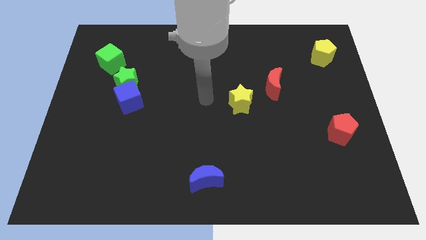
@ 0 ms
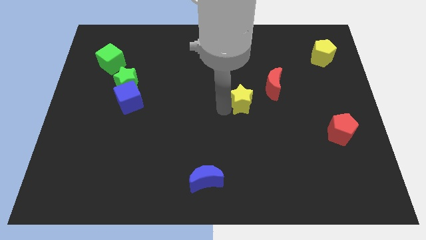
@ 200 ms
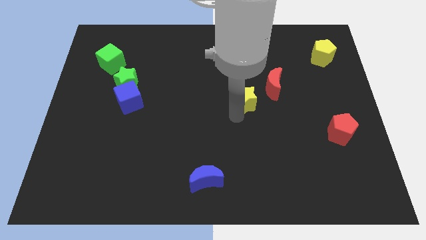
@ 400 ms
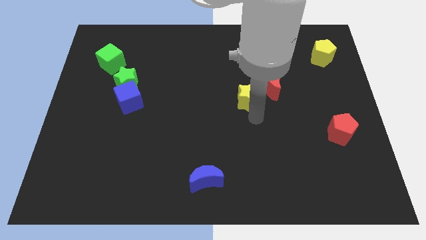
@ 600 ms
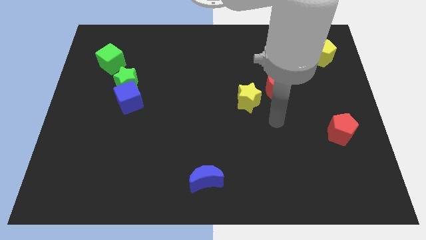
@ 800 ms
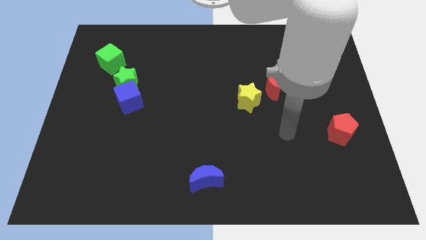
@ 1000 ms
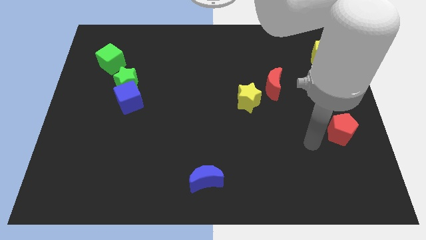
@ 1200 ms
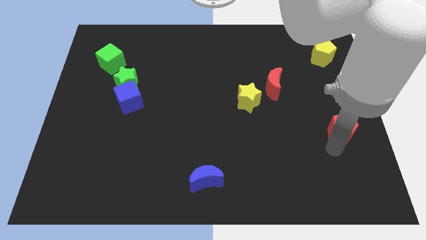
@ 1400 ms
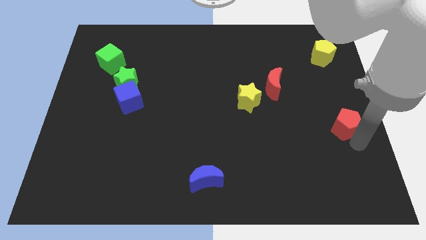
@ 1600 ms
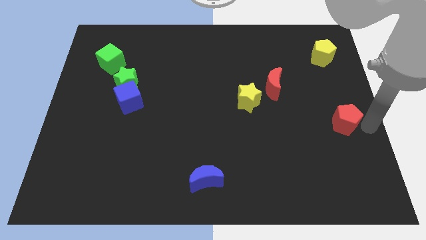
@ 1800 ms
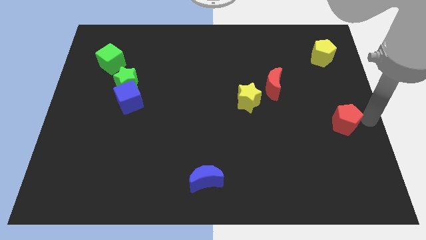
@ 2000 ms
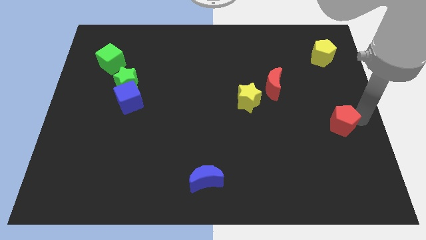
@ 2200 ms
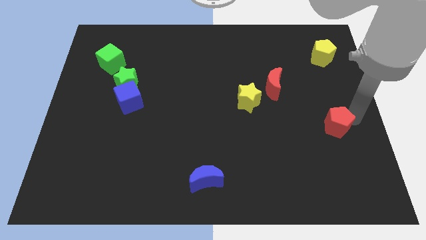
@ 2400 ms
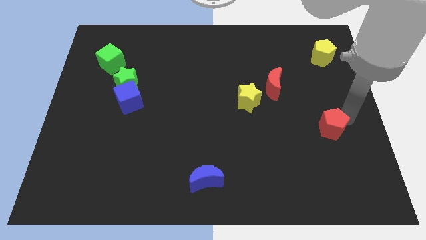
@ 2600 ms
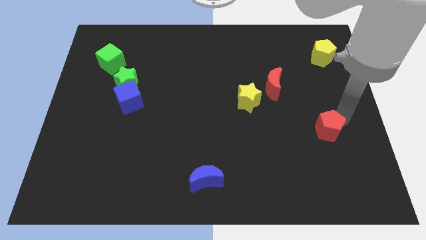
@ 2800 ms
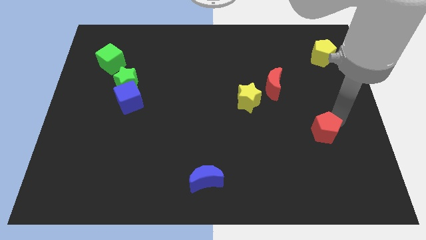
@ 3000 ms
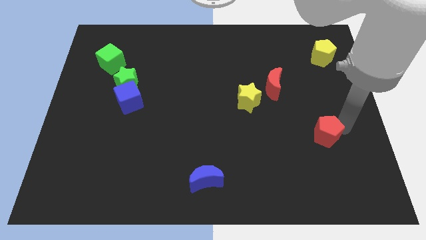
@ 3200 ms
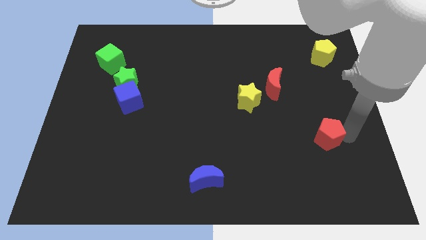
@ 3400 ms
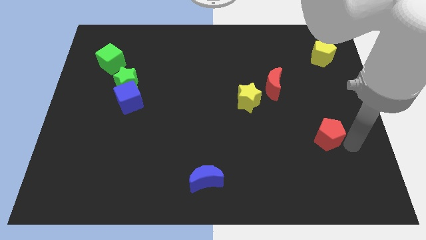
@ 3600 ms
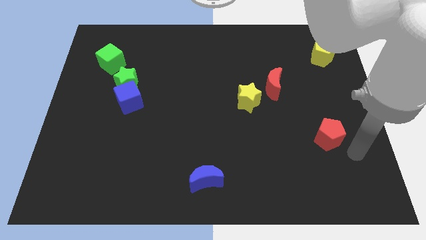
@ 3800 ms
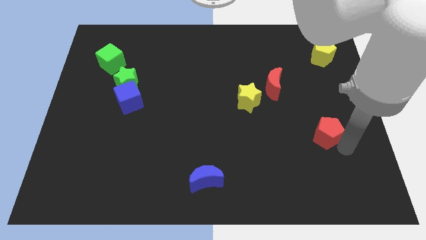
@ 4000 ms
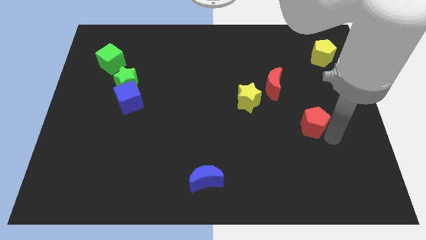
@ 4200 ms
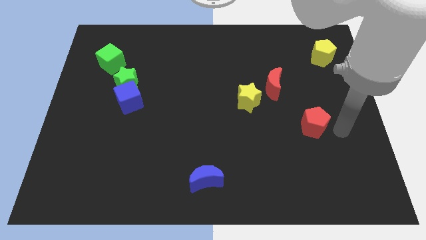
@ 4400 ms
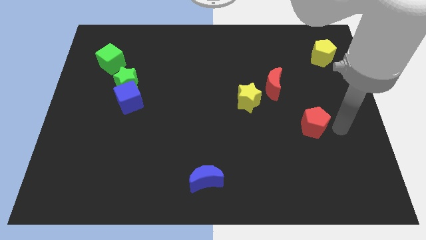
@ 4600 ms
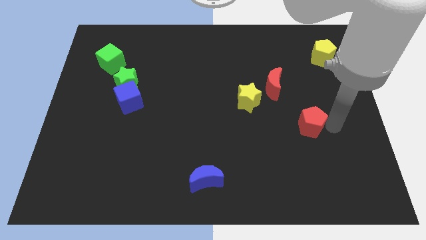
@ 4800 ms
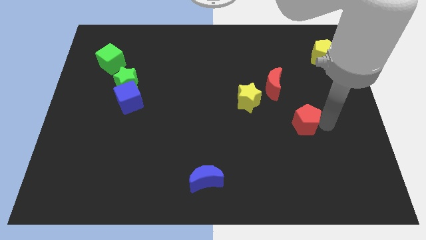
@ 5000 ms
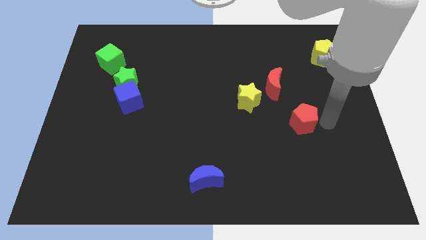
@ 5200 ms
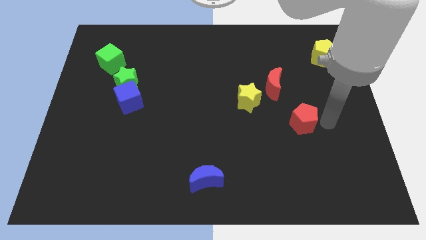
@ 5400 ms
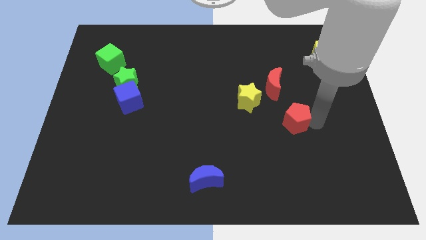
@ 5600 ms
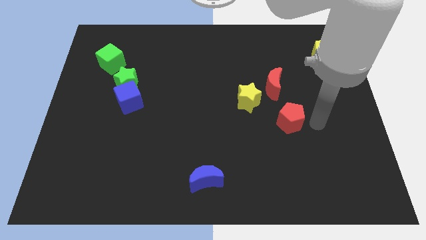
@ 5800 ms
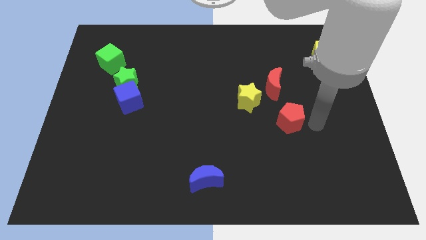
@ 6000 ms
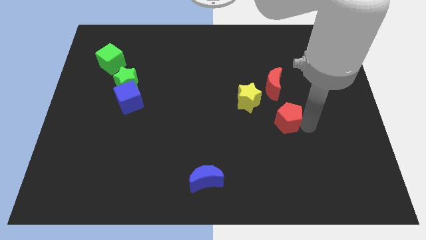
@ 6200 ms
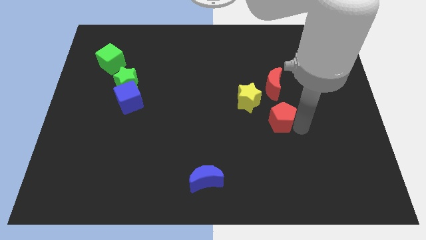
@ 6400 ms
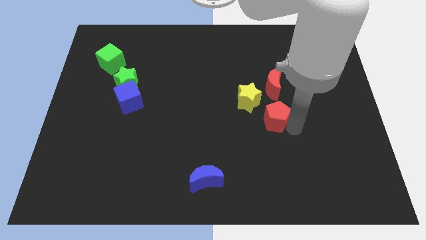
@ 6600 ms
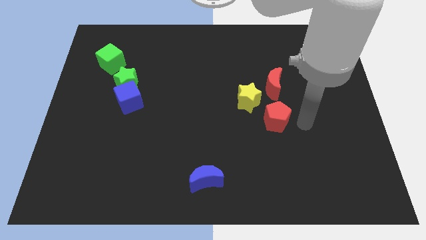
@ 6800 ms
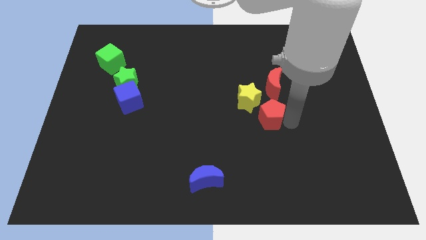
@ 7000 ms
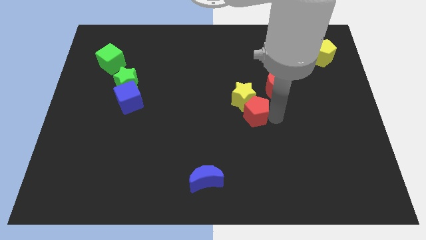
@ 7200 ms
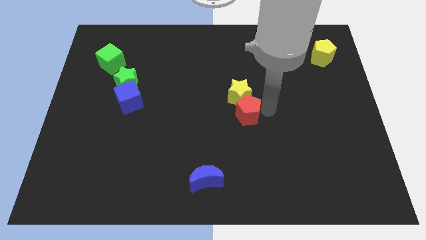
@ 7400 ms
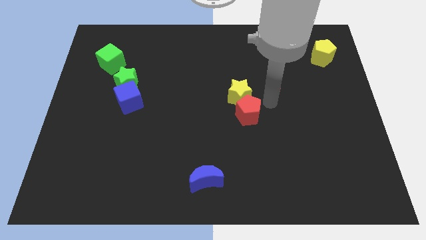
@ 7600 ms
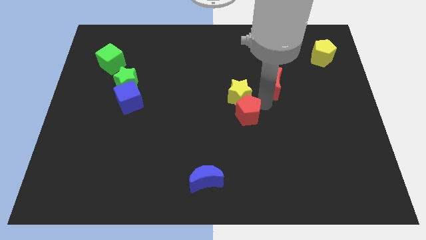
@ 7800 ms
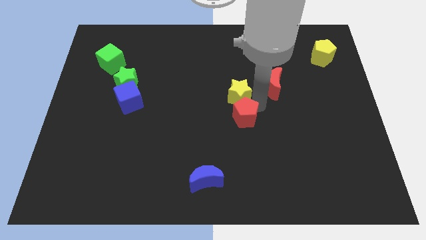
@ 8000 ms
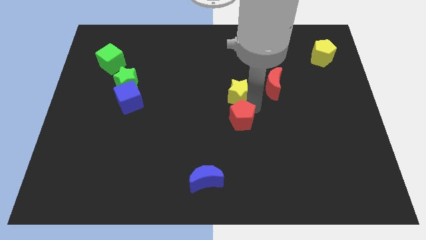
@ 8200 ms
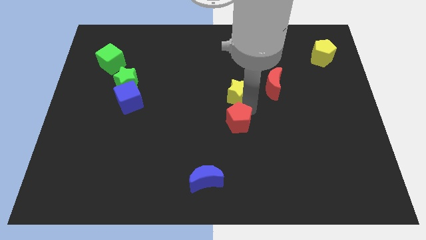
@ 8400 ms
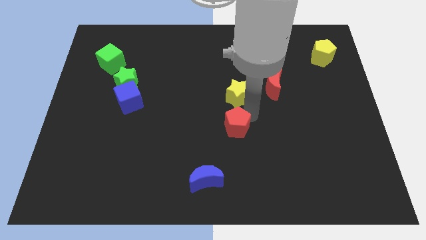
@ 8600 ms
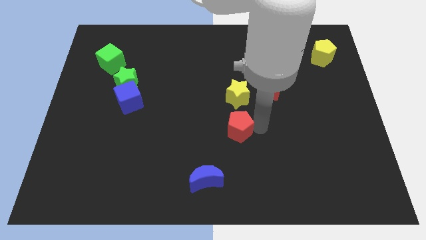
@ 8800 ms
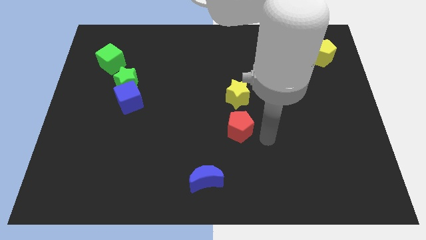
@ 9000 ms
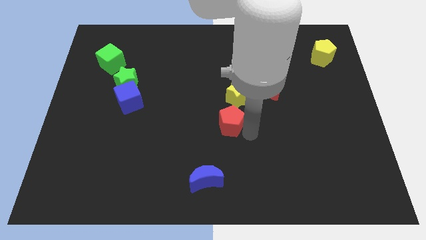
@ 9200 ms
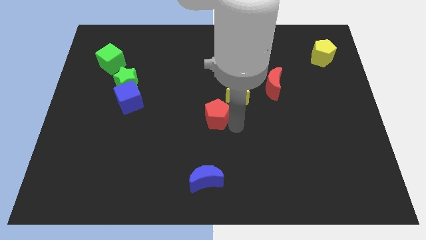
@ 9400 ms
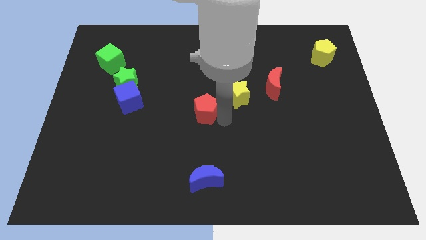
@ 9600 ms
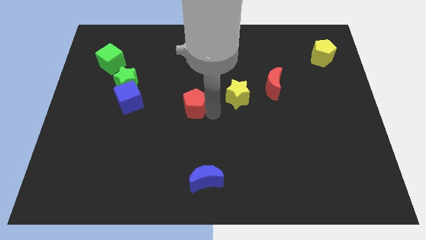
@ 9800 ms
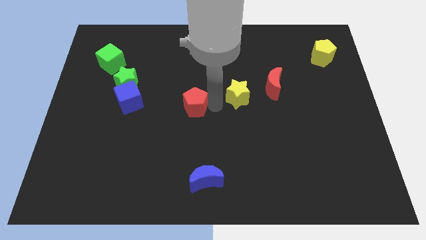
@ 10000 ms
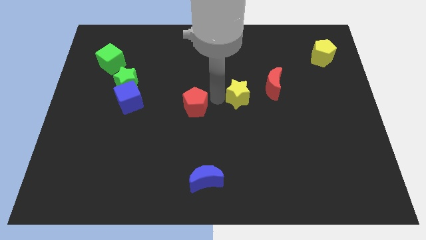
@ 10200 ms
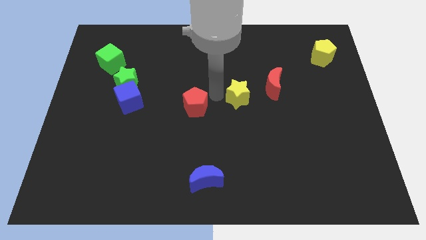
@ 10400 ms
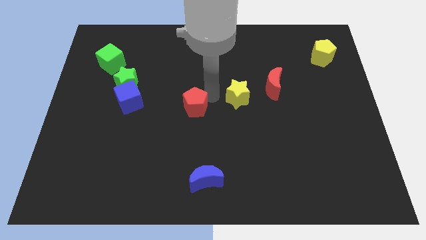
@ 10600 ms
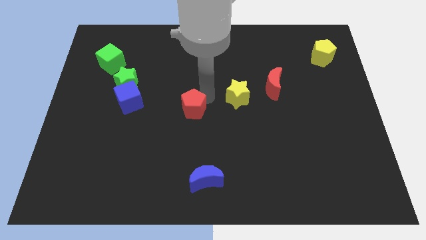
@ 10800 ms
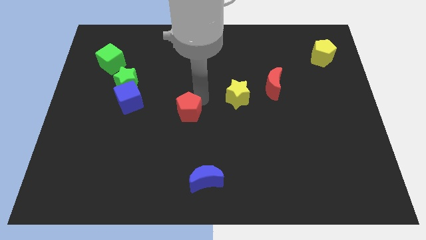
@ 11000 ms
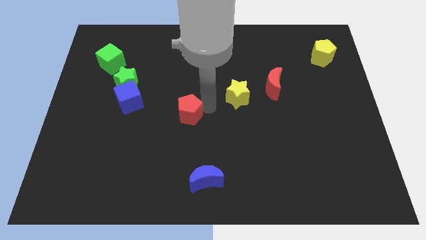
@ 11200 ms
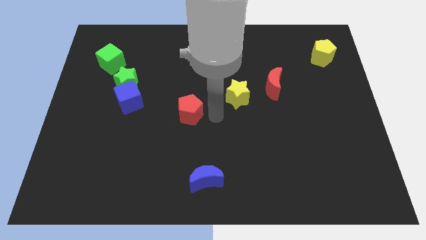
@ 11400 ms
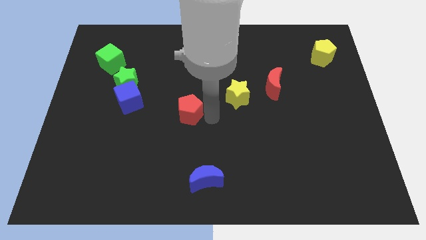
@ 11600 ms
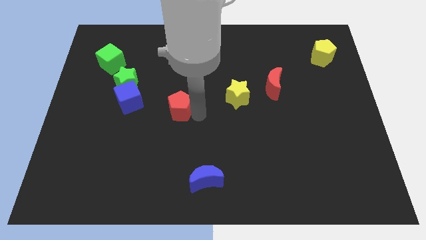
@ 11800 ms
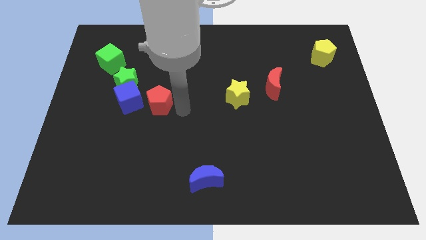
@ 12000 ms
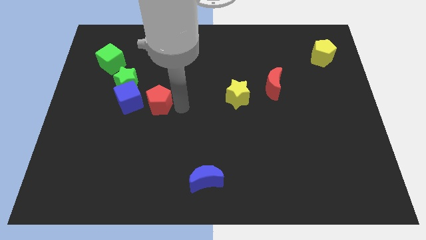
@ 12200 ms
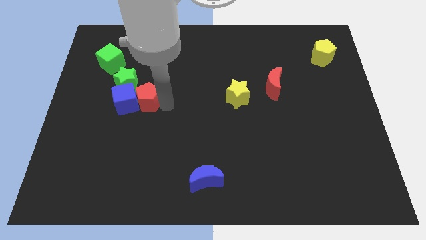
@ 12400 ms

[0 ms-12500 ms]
move the red pentagon to the blue cube

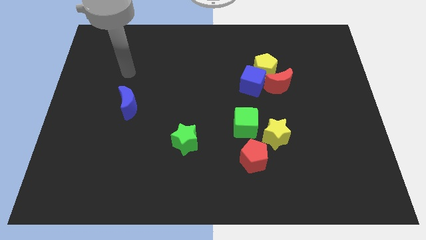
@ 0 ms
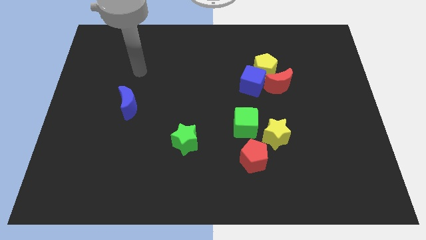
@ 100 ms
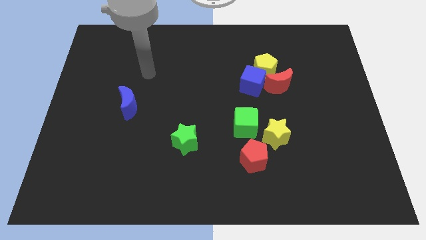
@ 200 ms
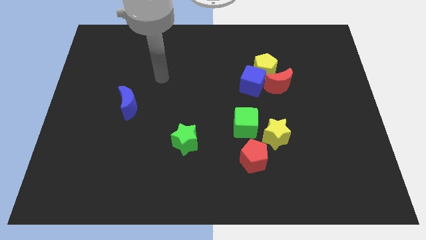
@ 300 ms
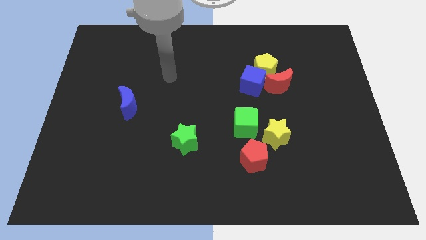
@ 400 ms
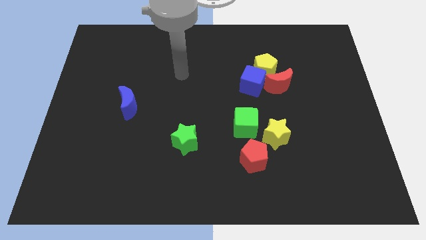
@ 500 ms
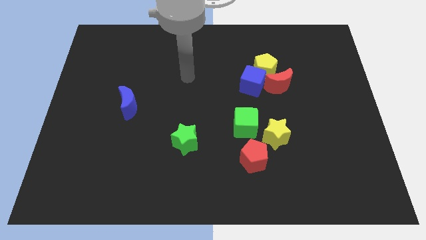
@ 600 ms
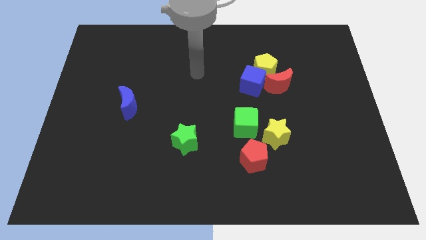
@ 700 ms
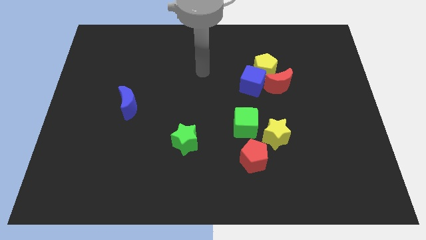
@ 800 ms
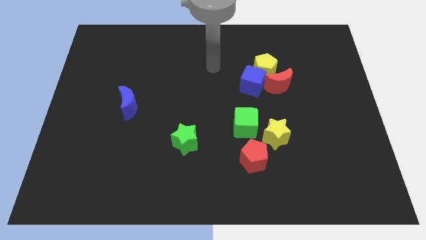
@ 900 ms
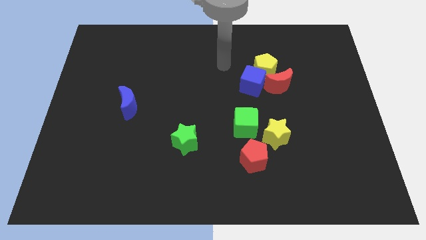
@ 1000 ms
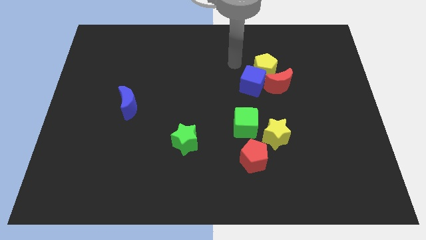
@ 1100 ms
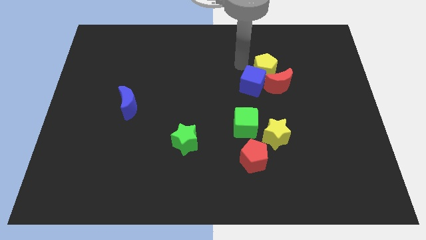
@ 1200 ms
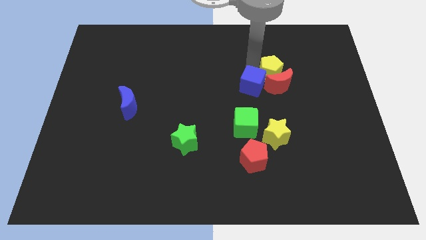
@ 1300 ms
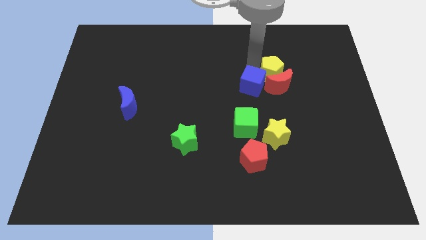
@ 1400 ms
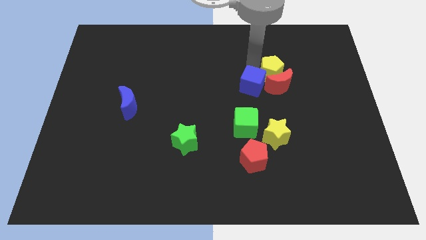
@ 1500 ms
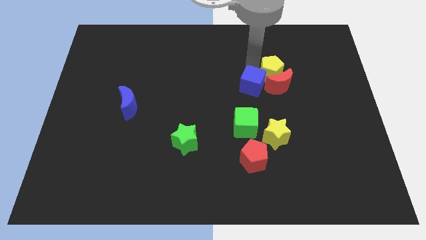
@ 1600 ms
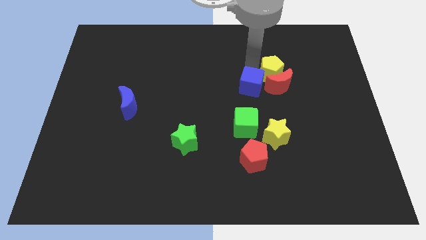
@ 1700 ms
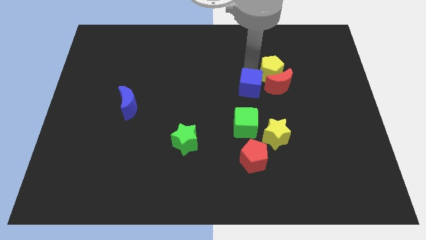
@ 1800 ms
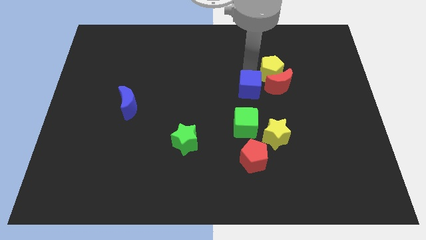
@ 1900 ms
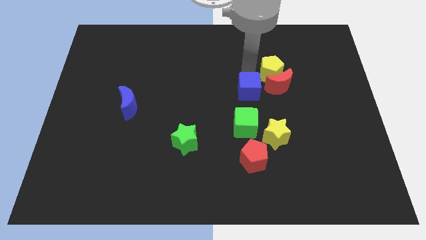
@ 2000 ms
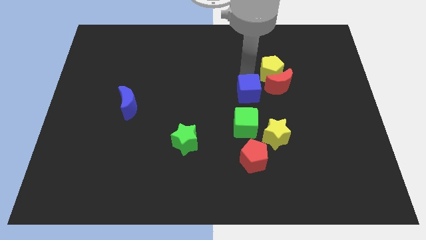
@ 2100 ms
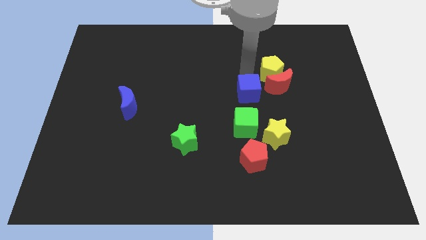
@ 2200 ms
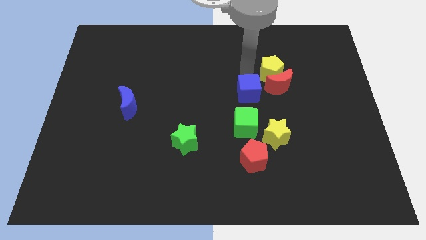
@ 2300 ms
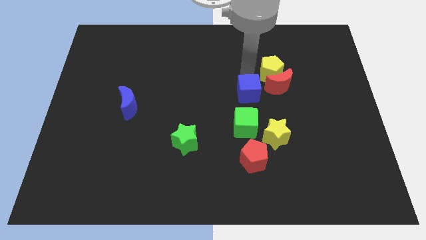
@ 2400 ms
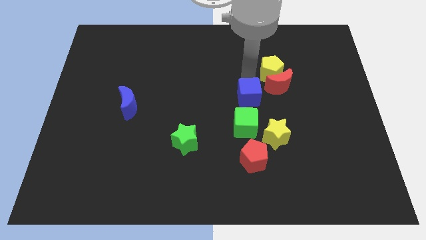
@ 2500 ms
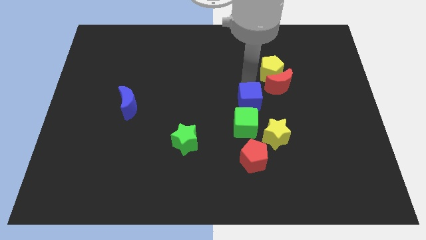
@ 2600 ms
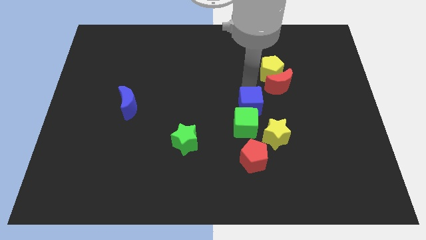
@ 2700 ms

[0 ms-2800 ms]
move the blue cube towards the green cube
